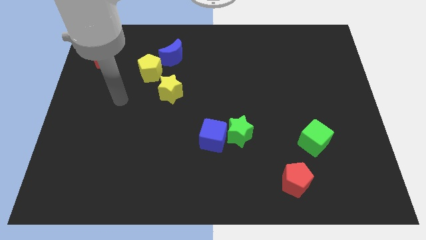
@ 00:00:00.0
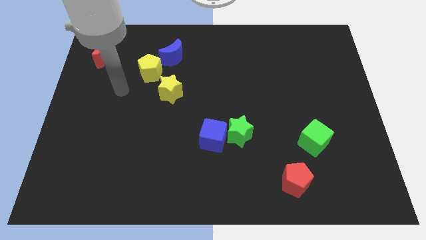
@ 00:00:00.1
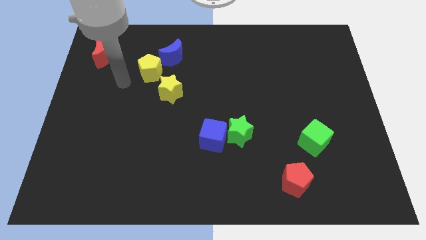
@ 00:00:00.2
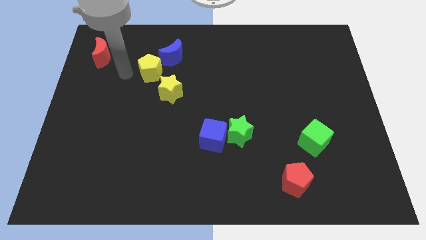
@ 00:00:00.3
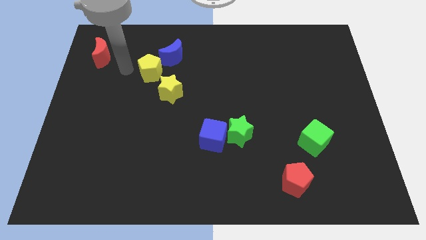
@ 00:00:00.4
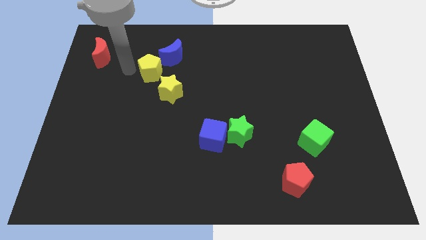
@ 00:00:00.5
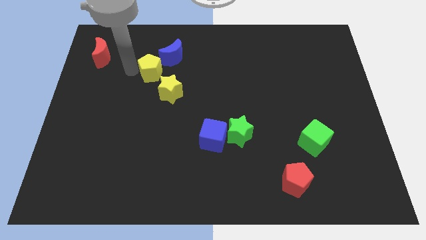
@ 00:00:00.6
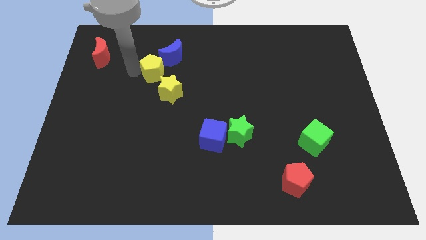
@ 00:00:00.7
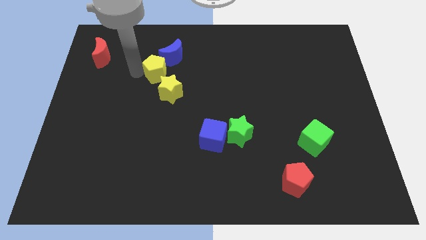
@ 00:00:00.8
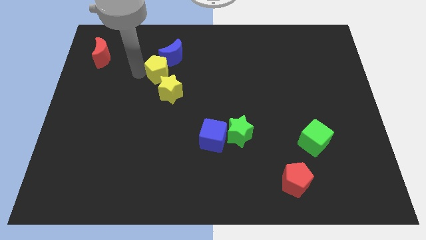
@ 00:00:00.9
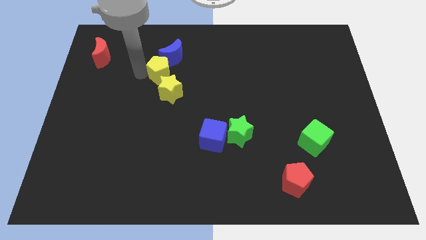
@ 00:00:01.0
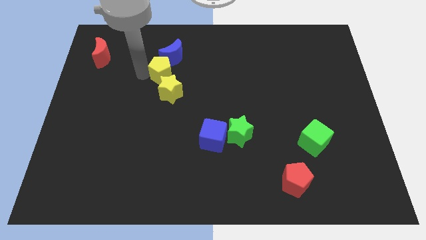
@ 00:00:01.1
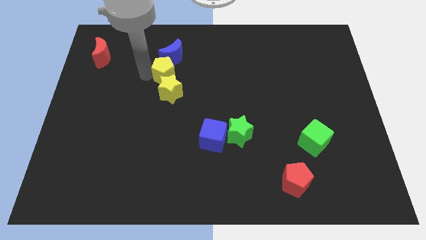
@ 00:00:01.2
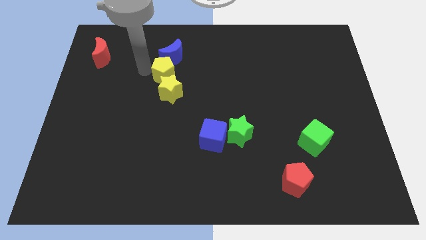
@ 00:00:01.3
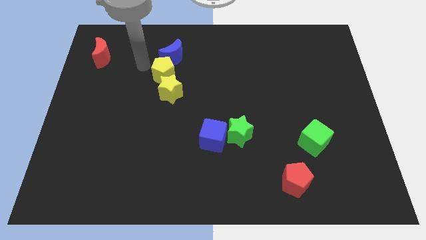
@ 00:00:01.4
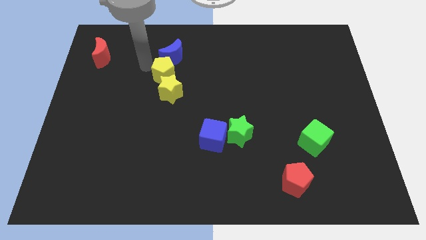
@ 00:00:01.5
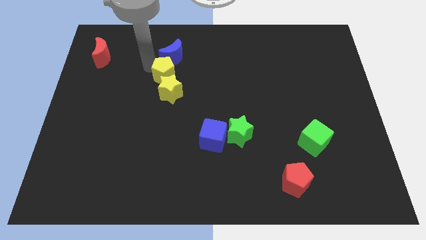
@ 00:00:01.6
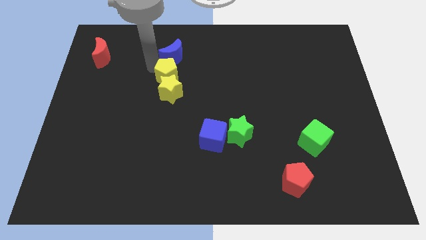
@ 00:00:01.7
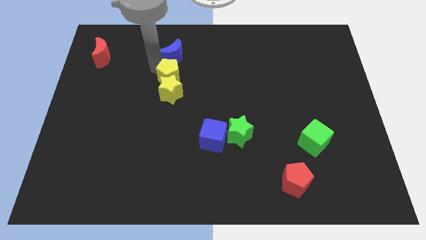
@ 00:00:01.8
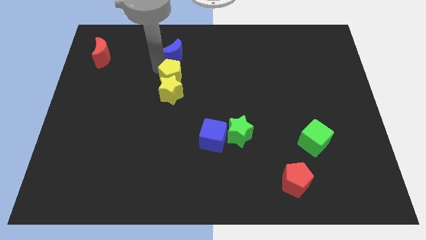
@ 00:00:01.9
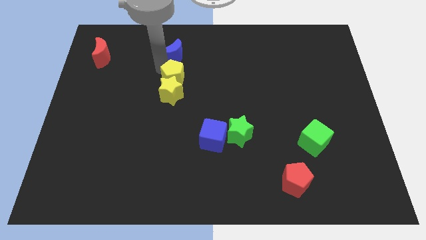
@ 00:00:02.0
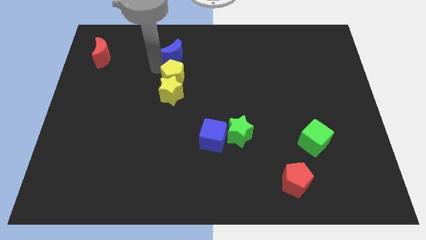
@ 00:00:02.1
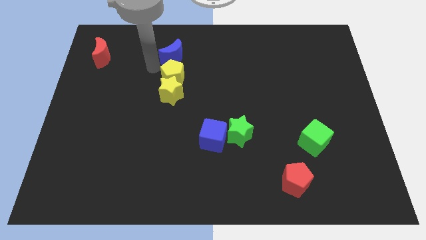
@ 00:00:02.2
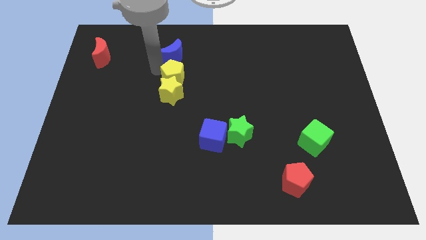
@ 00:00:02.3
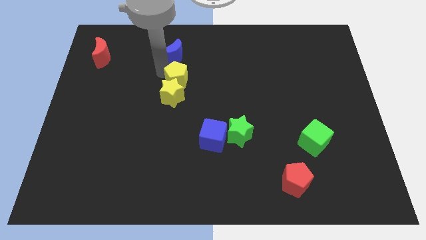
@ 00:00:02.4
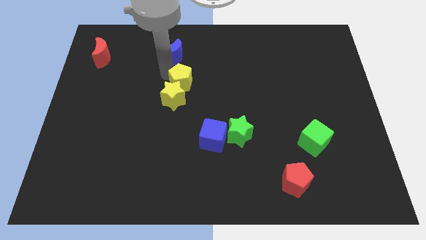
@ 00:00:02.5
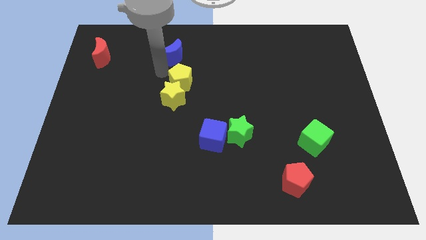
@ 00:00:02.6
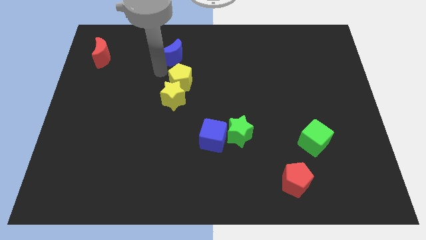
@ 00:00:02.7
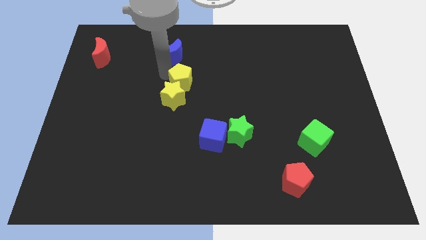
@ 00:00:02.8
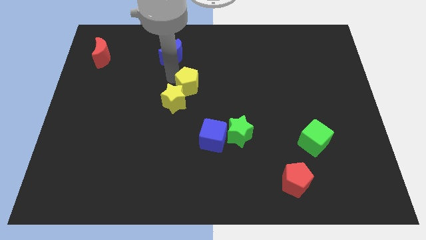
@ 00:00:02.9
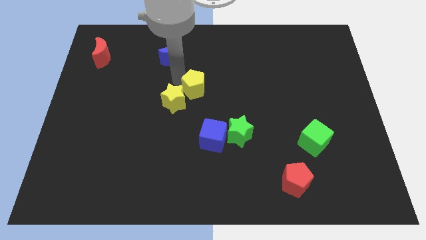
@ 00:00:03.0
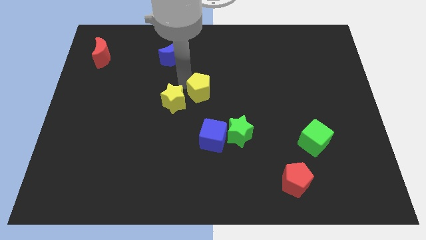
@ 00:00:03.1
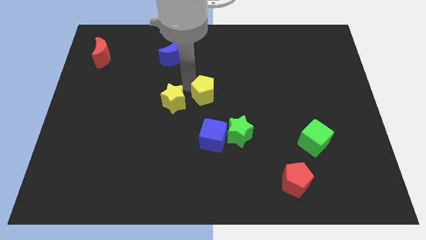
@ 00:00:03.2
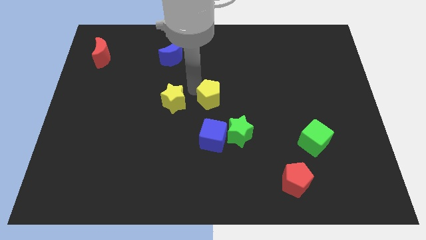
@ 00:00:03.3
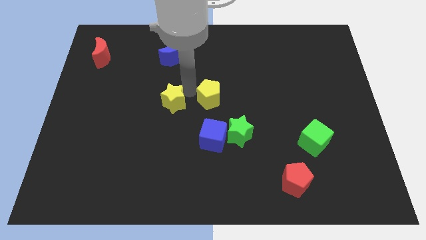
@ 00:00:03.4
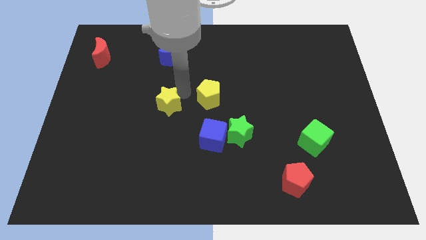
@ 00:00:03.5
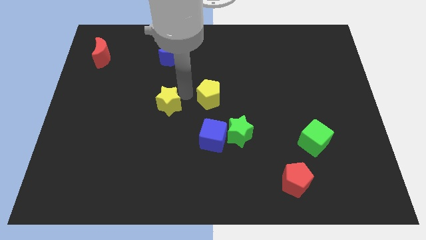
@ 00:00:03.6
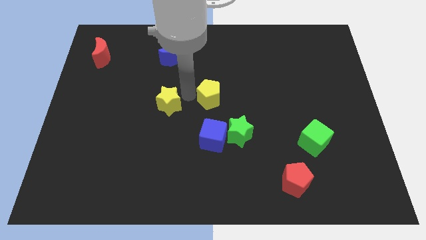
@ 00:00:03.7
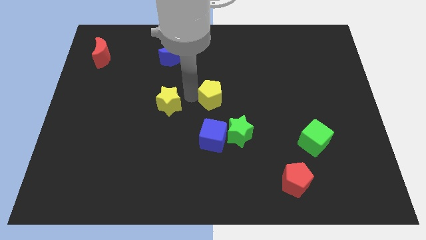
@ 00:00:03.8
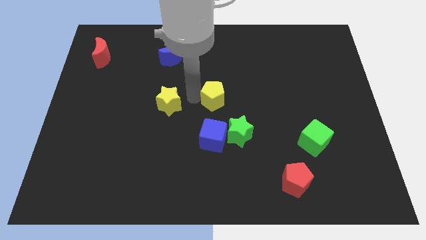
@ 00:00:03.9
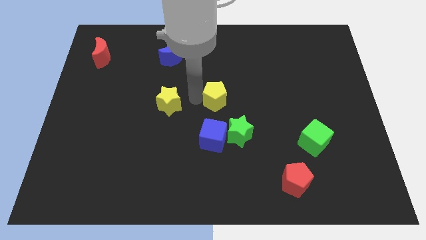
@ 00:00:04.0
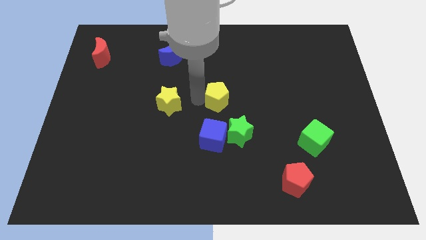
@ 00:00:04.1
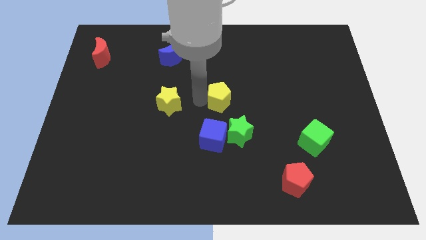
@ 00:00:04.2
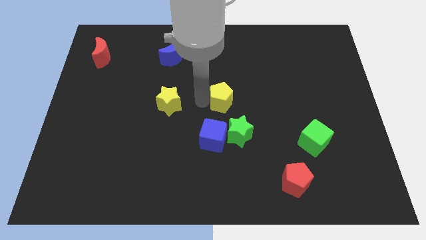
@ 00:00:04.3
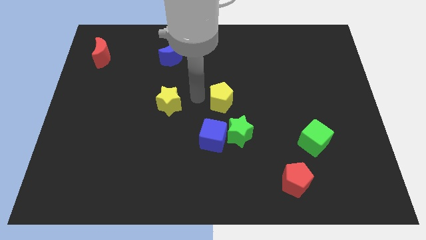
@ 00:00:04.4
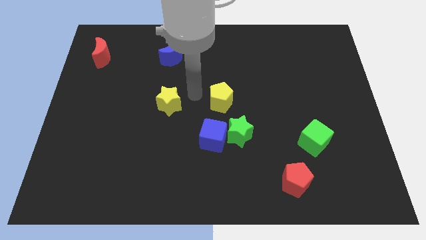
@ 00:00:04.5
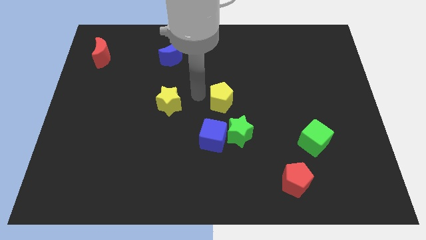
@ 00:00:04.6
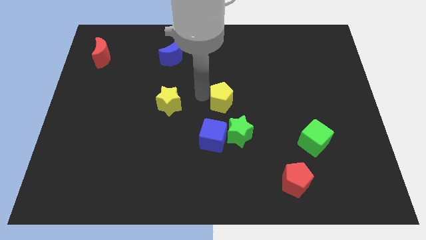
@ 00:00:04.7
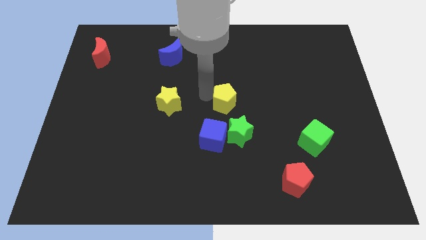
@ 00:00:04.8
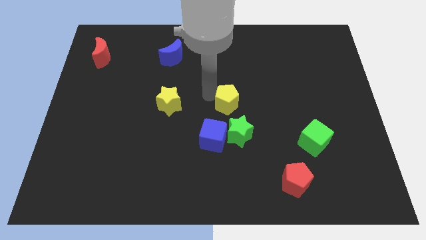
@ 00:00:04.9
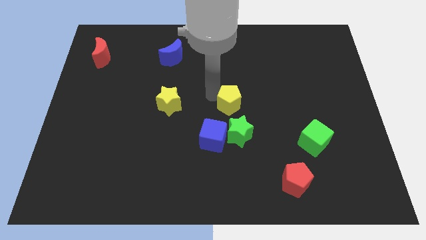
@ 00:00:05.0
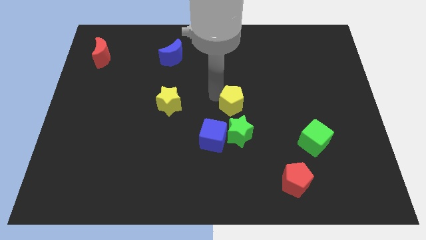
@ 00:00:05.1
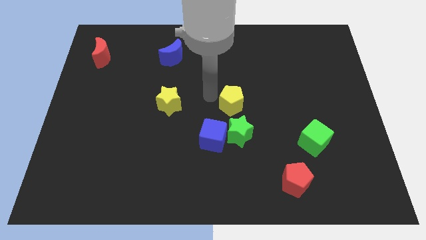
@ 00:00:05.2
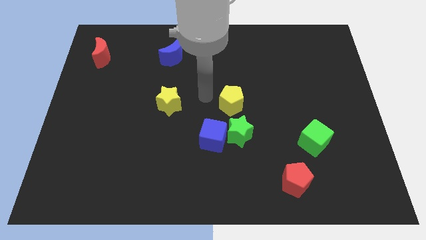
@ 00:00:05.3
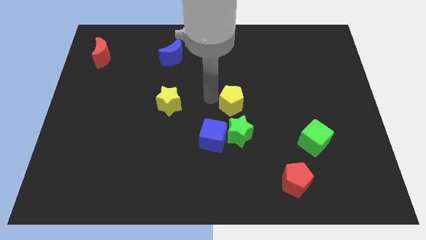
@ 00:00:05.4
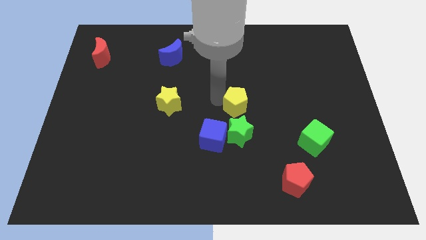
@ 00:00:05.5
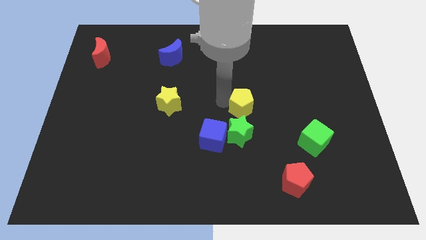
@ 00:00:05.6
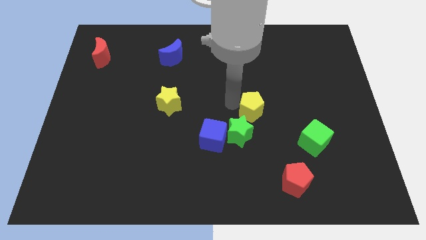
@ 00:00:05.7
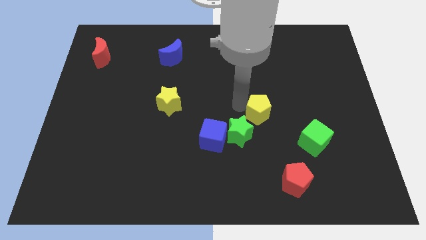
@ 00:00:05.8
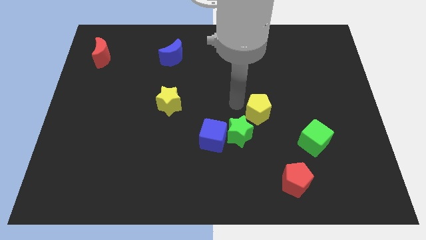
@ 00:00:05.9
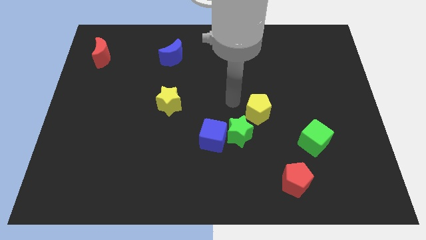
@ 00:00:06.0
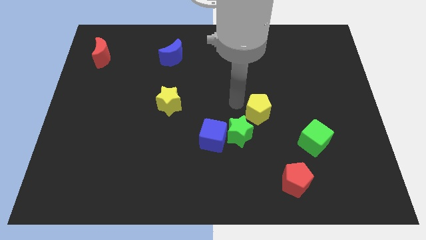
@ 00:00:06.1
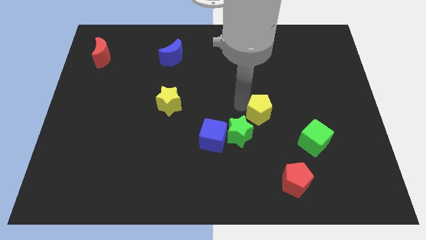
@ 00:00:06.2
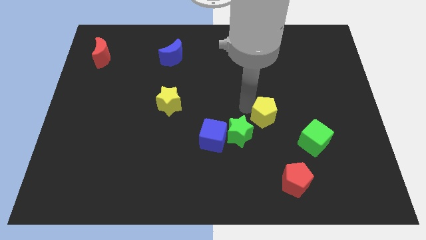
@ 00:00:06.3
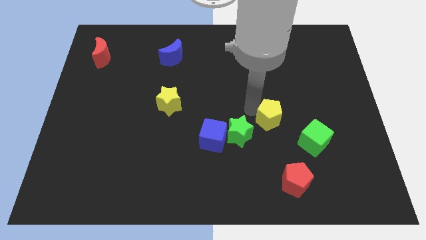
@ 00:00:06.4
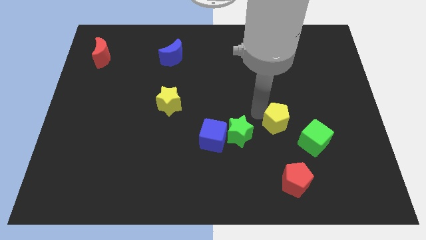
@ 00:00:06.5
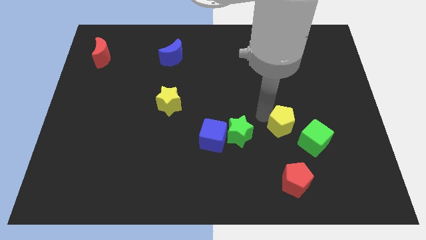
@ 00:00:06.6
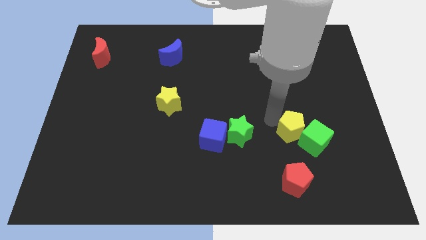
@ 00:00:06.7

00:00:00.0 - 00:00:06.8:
slide the yellow pentagon towards the green cube

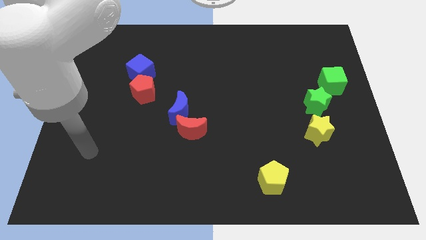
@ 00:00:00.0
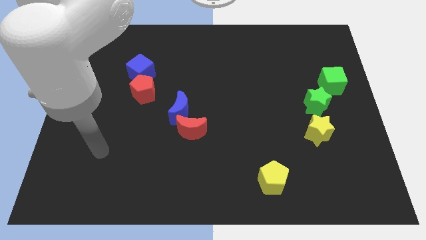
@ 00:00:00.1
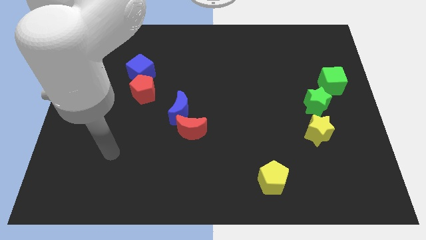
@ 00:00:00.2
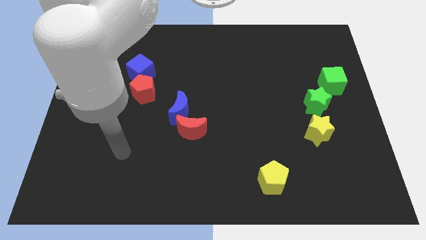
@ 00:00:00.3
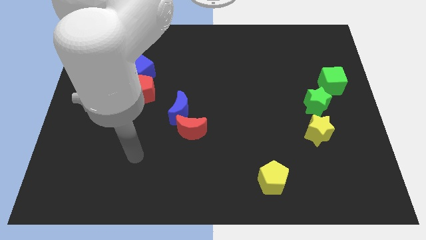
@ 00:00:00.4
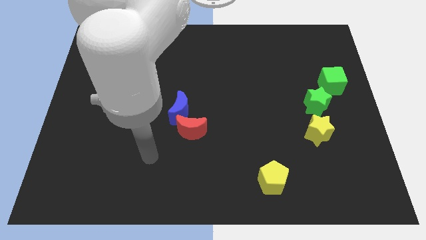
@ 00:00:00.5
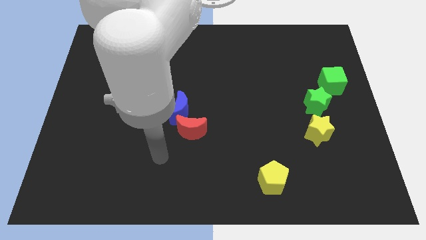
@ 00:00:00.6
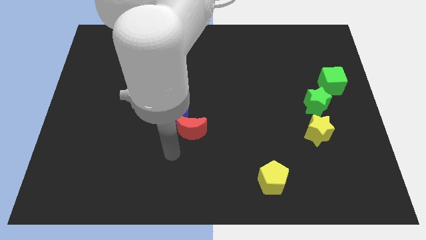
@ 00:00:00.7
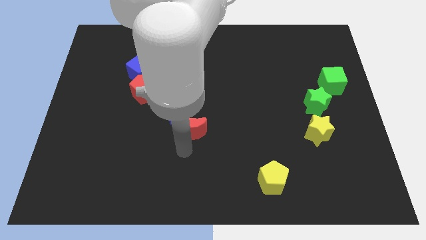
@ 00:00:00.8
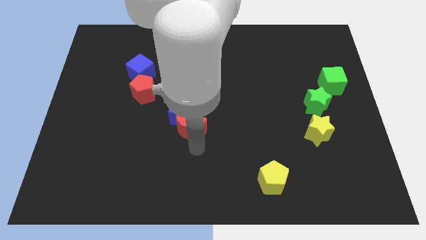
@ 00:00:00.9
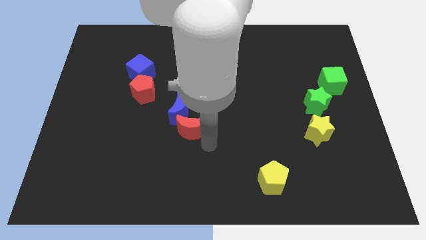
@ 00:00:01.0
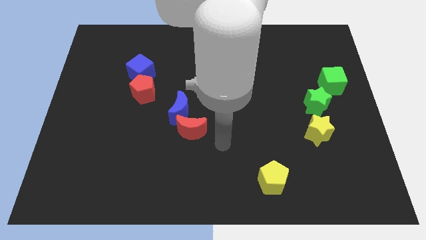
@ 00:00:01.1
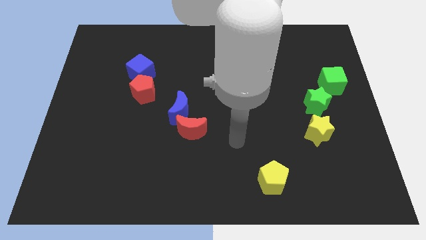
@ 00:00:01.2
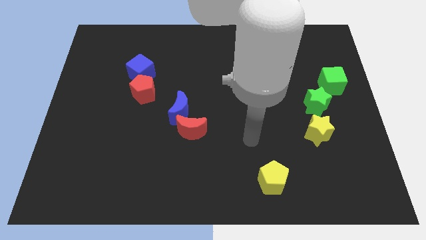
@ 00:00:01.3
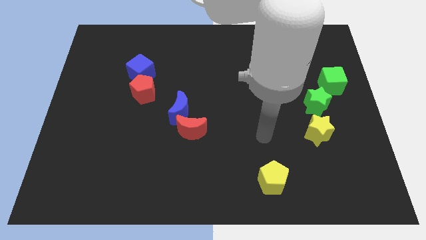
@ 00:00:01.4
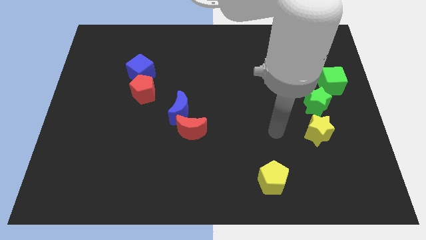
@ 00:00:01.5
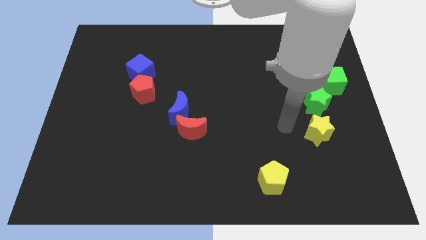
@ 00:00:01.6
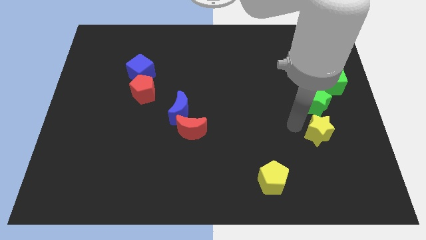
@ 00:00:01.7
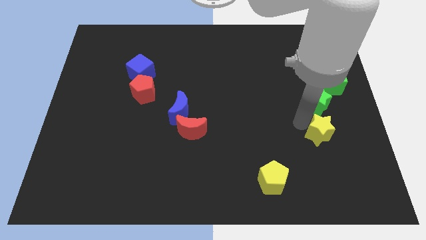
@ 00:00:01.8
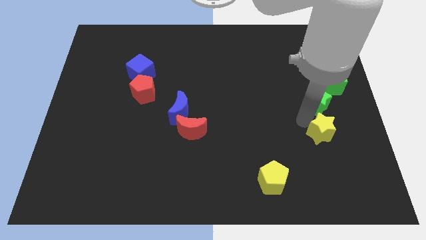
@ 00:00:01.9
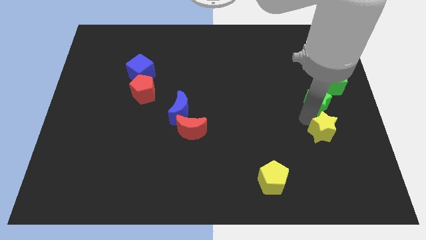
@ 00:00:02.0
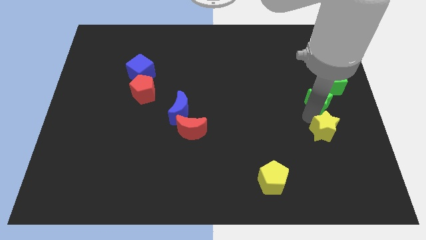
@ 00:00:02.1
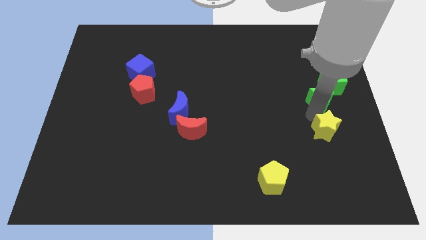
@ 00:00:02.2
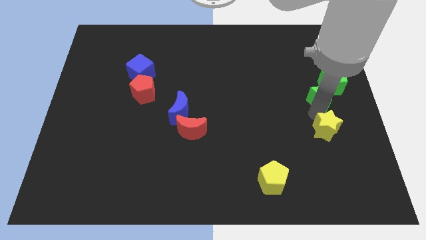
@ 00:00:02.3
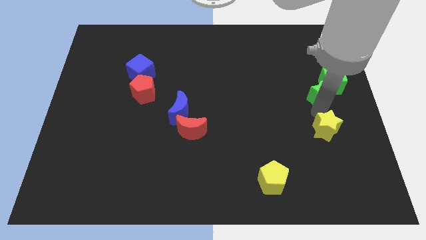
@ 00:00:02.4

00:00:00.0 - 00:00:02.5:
move the green star towards the green cube
